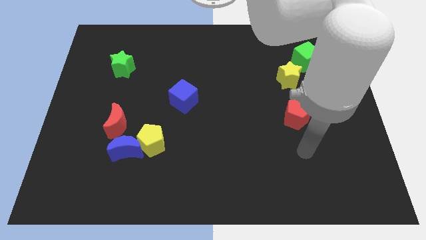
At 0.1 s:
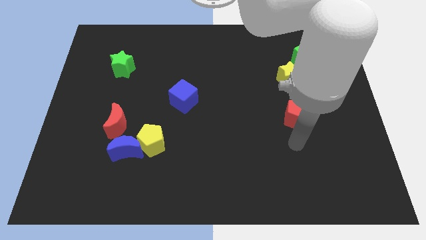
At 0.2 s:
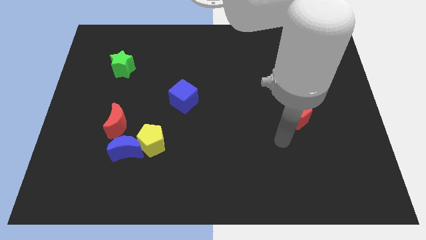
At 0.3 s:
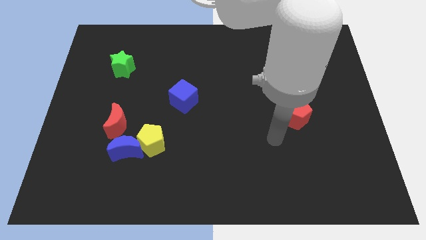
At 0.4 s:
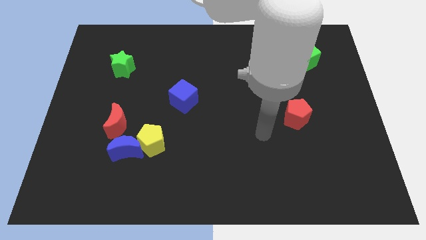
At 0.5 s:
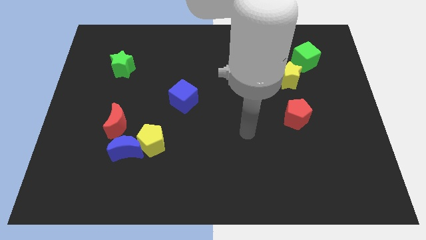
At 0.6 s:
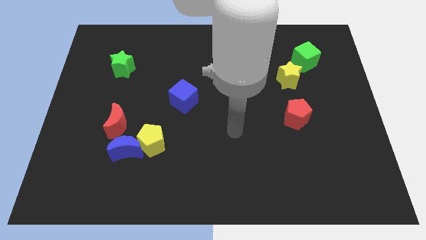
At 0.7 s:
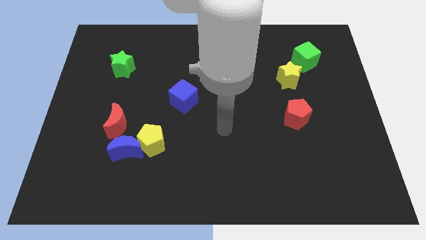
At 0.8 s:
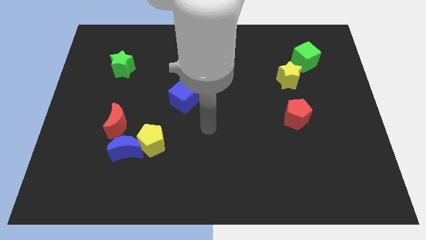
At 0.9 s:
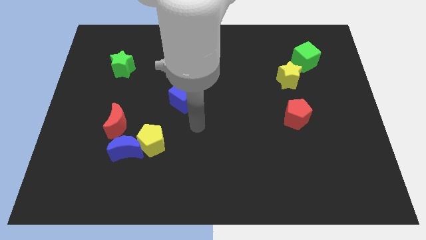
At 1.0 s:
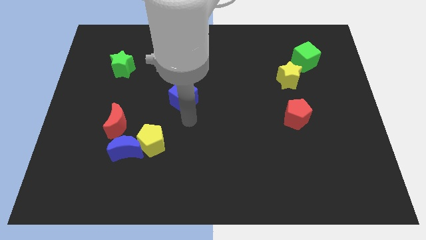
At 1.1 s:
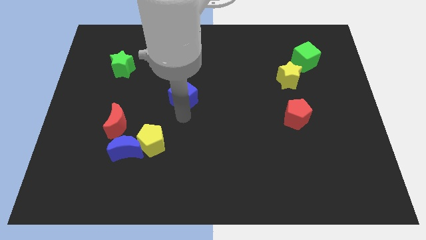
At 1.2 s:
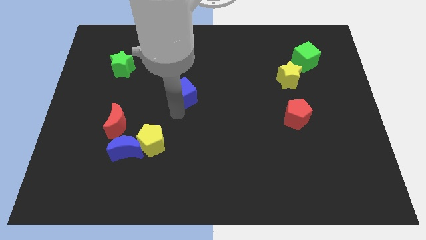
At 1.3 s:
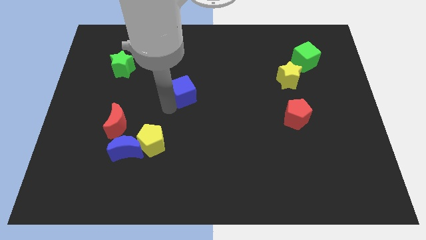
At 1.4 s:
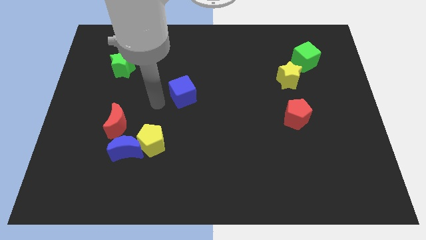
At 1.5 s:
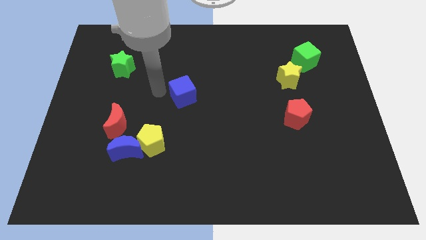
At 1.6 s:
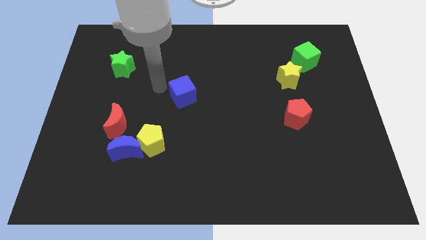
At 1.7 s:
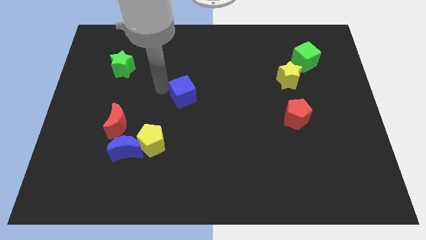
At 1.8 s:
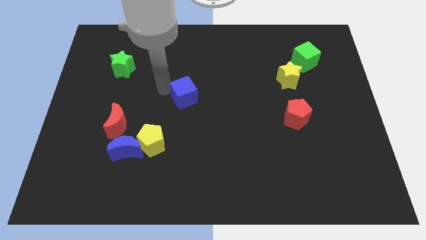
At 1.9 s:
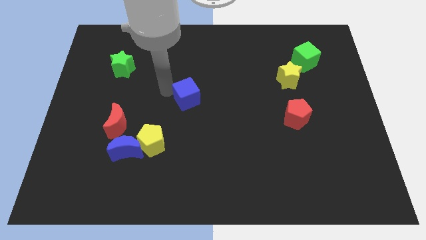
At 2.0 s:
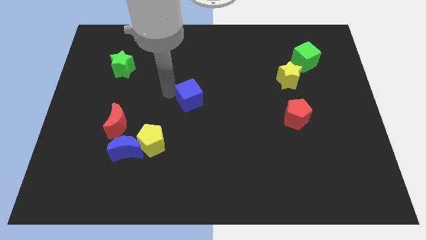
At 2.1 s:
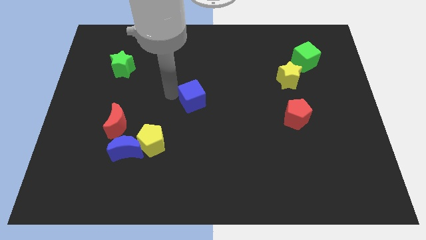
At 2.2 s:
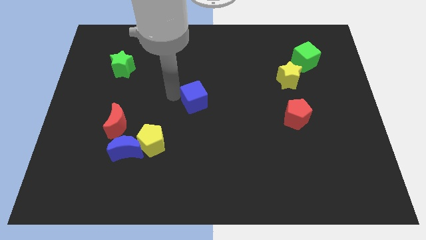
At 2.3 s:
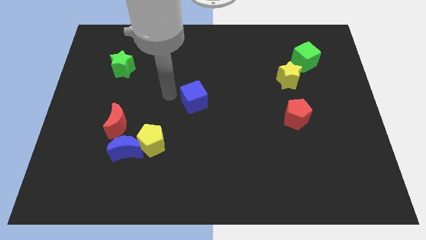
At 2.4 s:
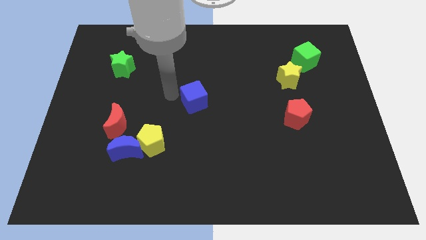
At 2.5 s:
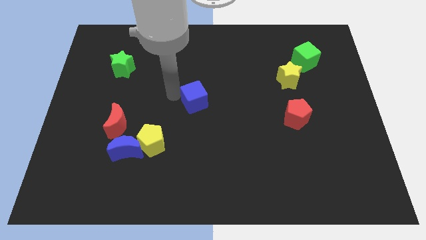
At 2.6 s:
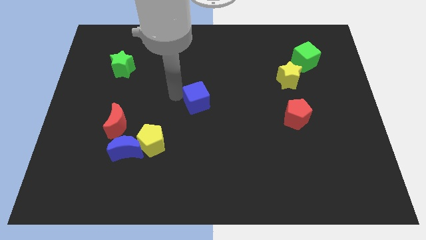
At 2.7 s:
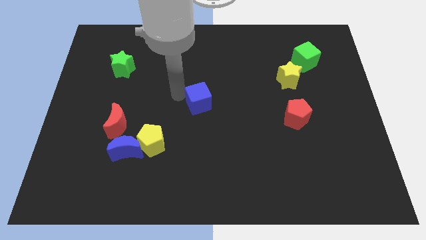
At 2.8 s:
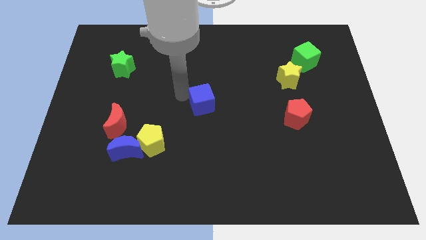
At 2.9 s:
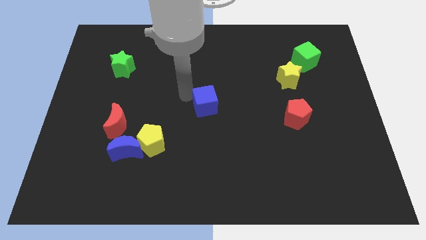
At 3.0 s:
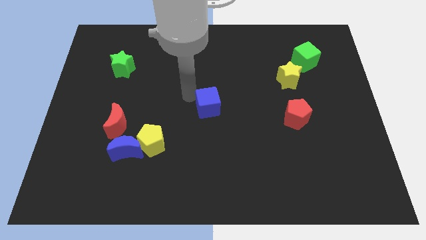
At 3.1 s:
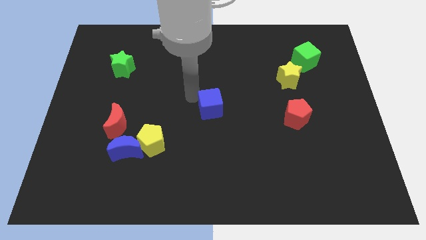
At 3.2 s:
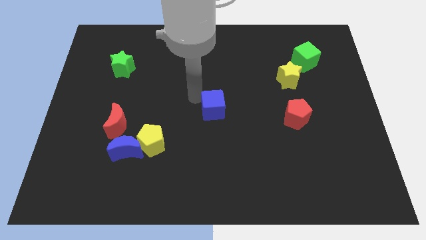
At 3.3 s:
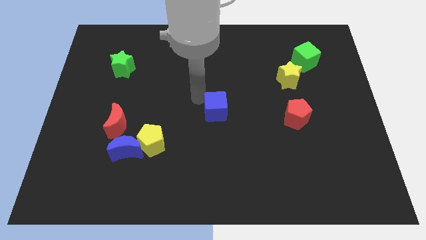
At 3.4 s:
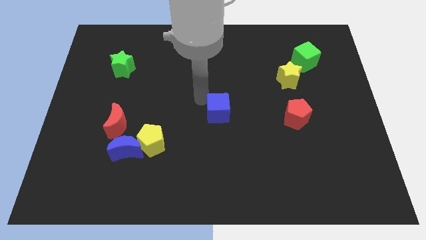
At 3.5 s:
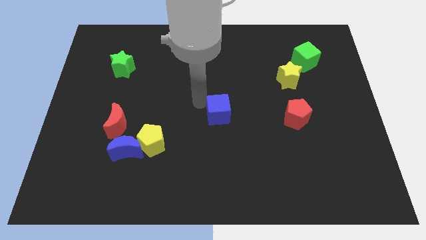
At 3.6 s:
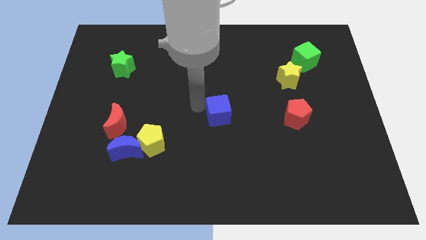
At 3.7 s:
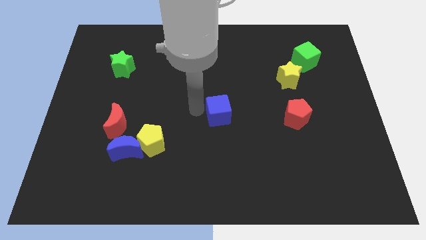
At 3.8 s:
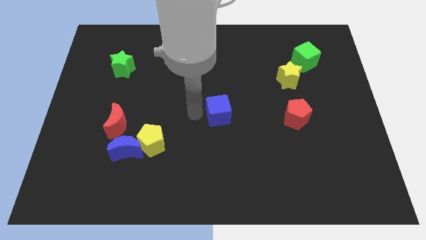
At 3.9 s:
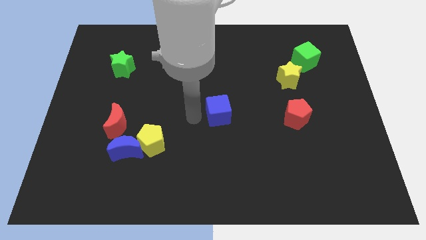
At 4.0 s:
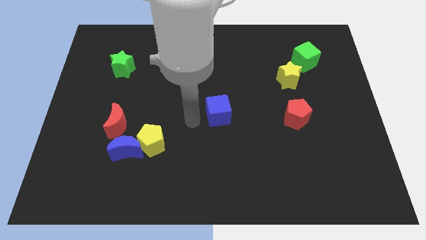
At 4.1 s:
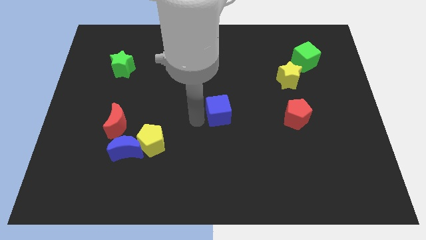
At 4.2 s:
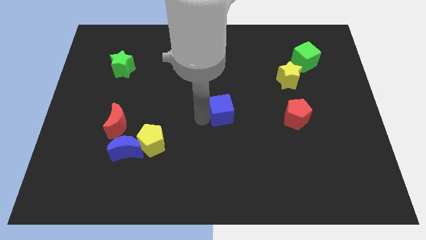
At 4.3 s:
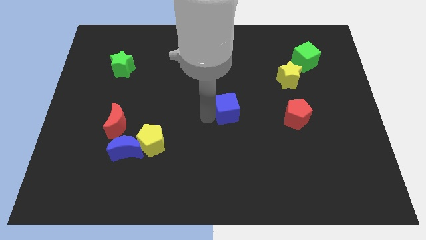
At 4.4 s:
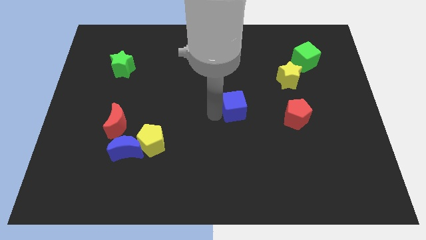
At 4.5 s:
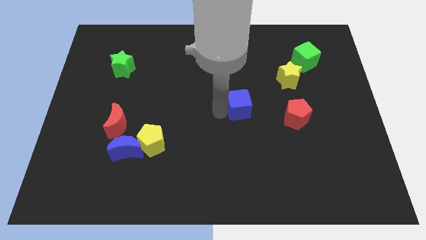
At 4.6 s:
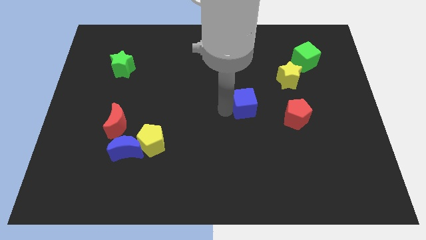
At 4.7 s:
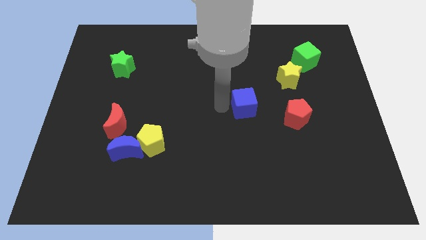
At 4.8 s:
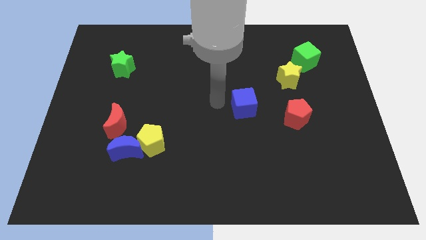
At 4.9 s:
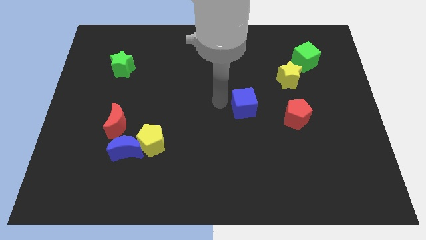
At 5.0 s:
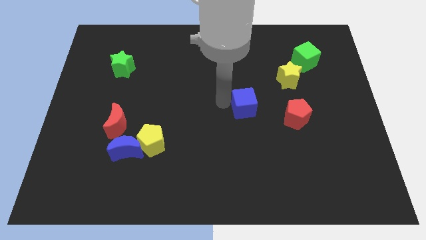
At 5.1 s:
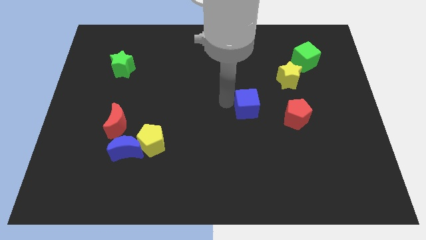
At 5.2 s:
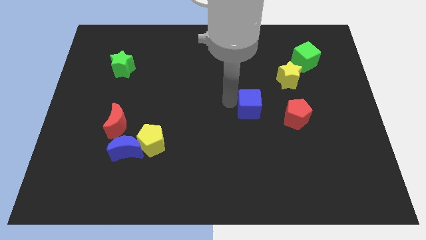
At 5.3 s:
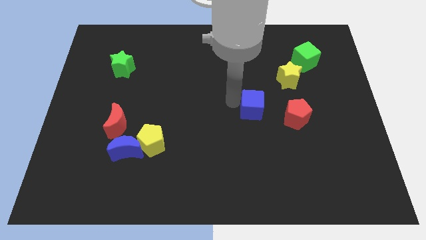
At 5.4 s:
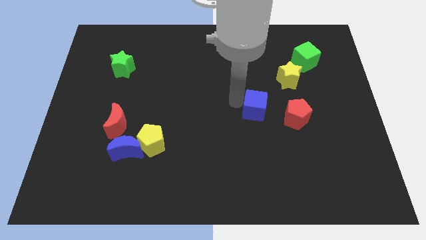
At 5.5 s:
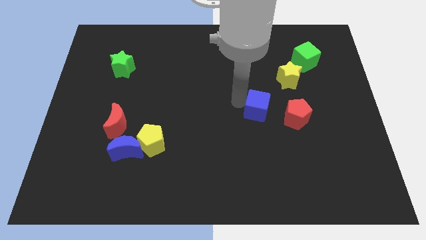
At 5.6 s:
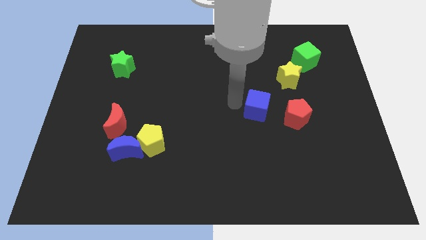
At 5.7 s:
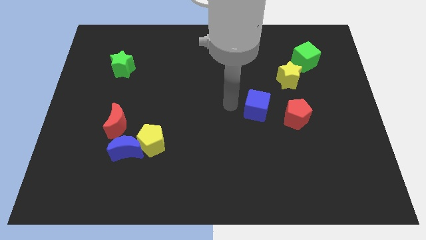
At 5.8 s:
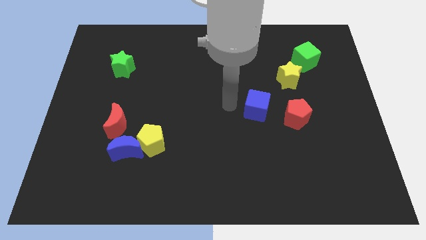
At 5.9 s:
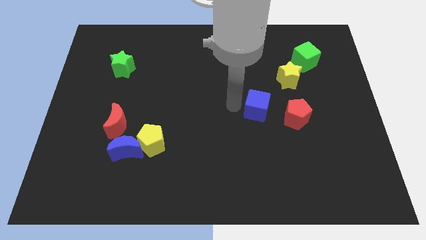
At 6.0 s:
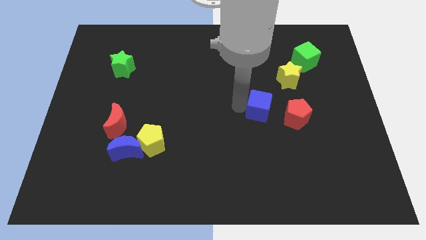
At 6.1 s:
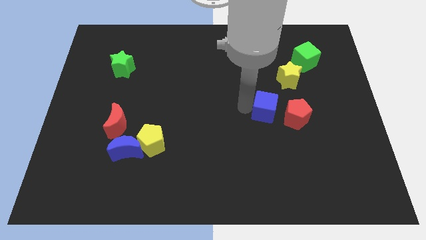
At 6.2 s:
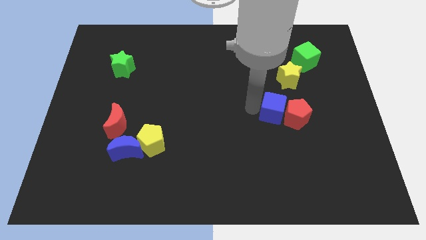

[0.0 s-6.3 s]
push the blue cube next to the red pentagon

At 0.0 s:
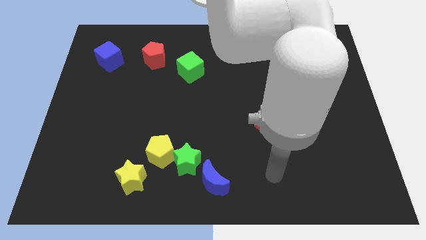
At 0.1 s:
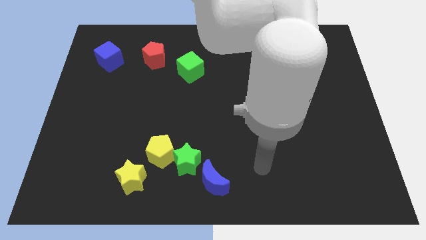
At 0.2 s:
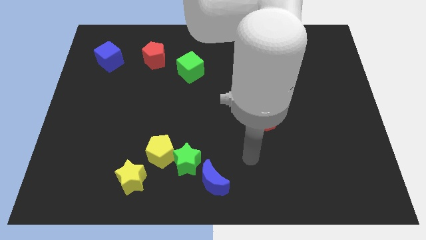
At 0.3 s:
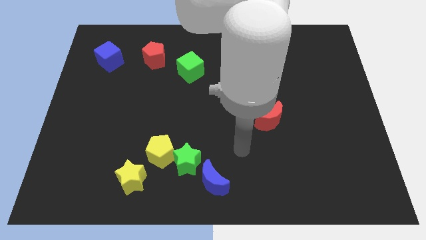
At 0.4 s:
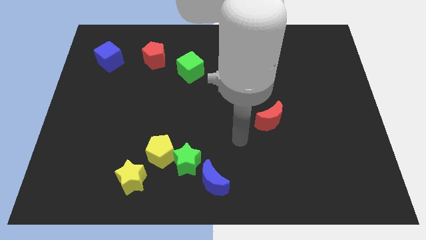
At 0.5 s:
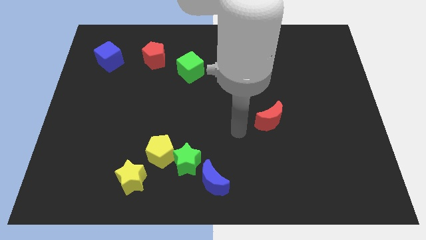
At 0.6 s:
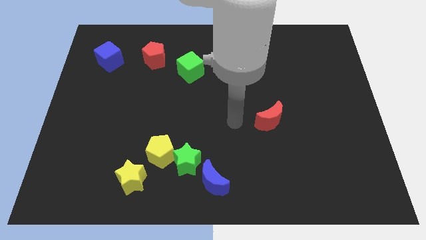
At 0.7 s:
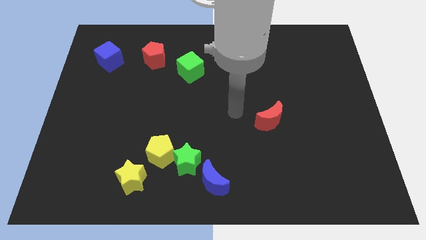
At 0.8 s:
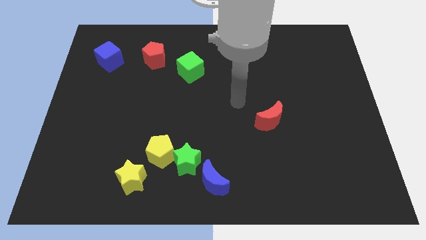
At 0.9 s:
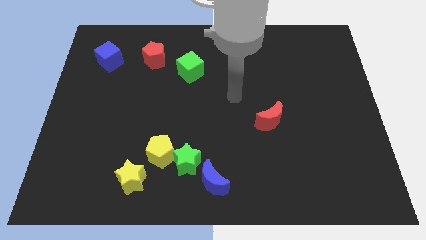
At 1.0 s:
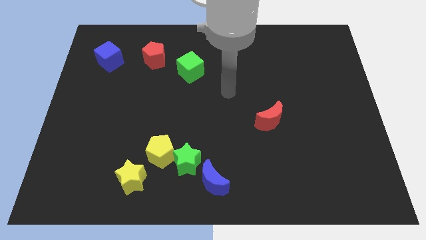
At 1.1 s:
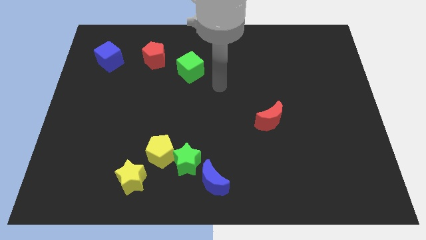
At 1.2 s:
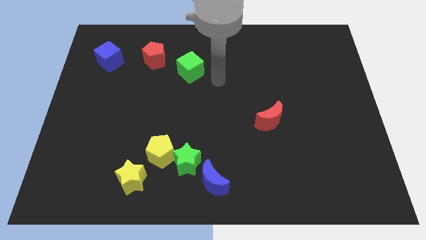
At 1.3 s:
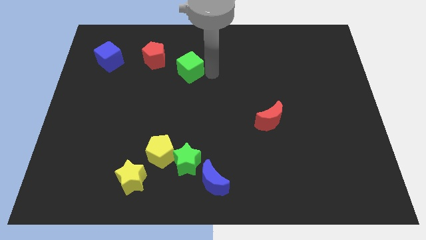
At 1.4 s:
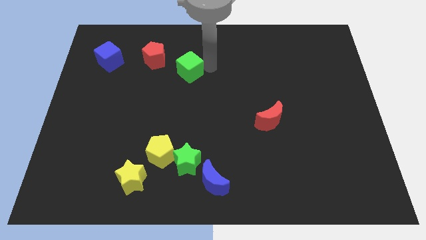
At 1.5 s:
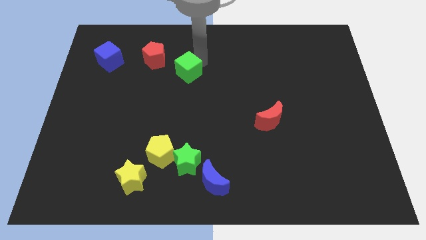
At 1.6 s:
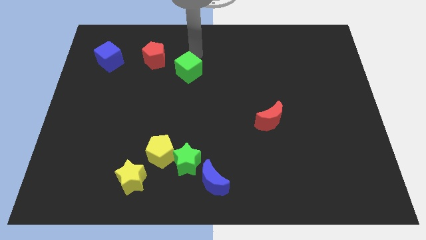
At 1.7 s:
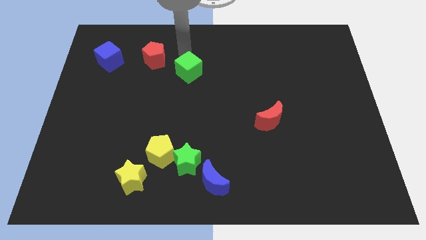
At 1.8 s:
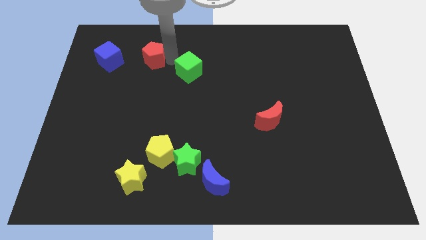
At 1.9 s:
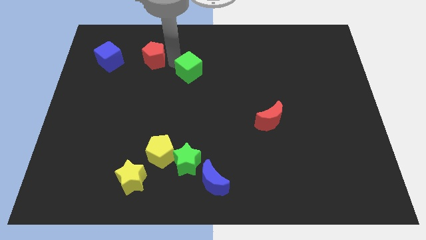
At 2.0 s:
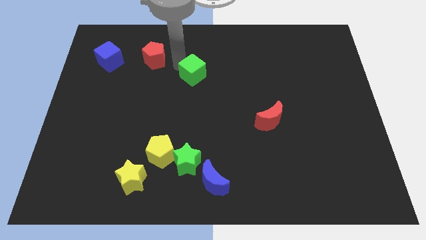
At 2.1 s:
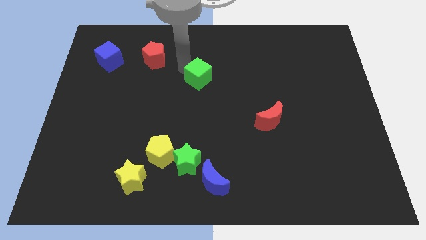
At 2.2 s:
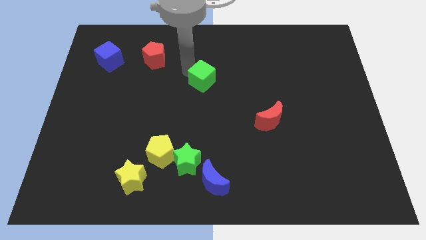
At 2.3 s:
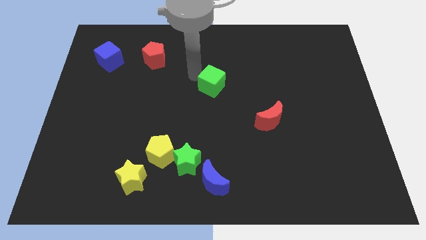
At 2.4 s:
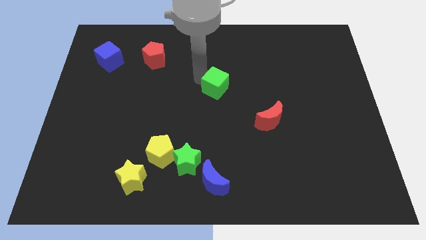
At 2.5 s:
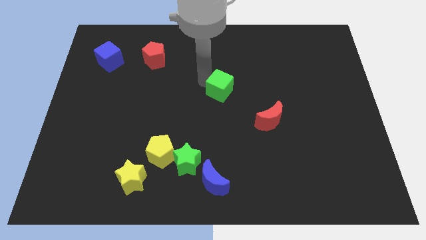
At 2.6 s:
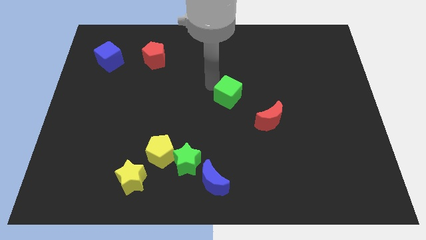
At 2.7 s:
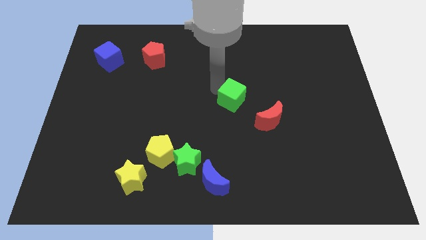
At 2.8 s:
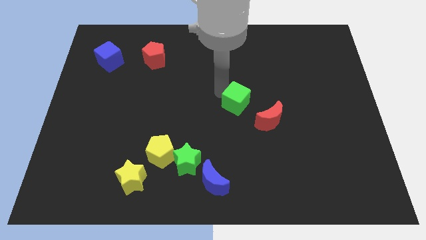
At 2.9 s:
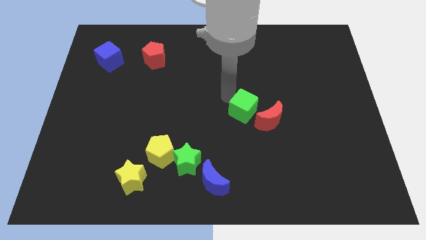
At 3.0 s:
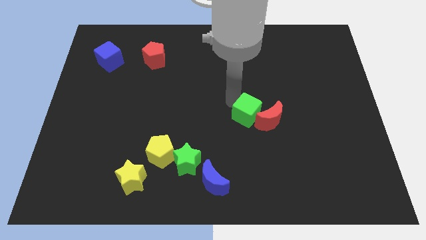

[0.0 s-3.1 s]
slide the green cube close to the red moon
